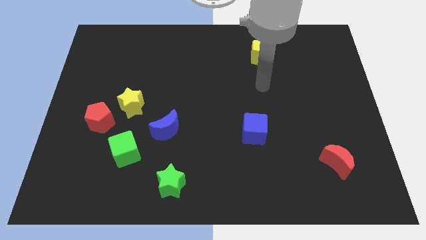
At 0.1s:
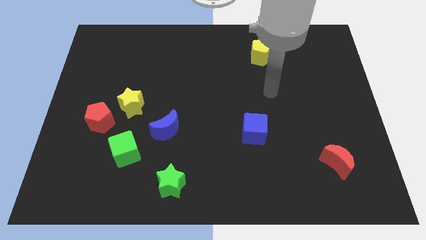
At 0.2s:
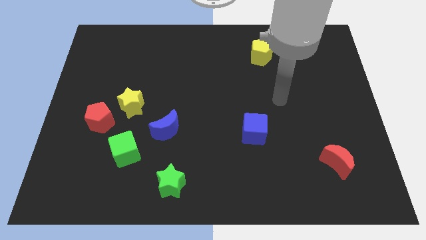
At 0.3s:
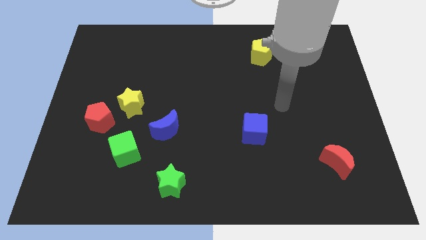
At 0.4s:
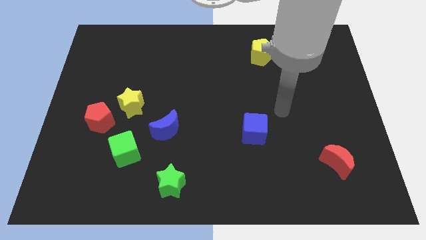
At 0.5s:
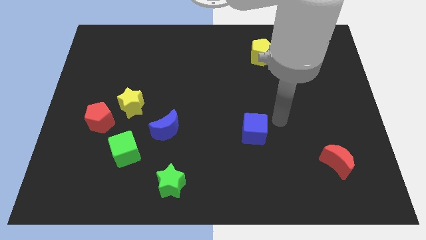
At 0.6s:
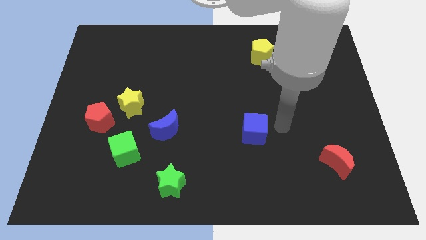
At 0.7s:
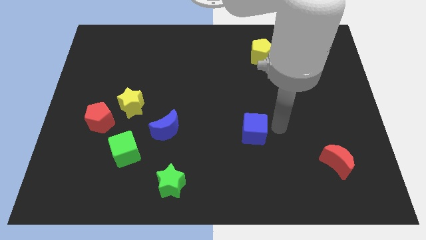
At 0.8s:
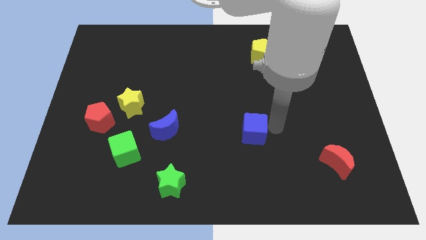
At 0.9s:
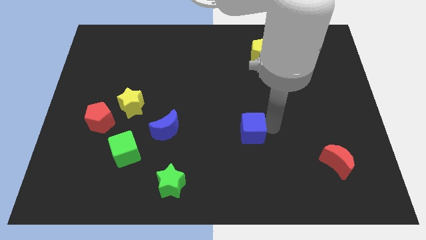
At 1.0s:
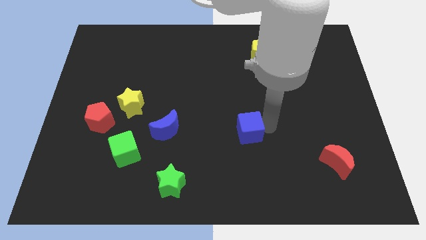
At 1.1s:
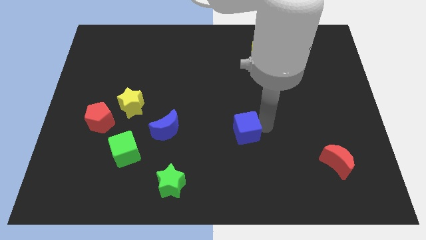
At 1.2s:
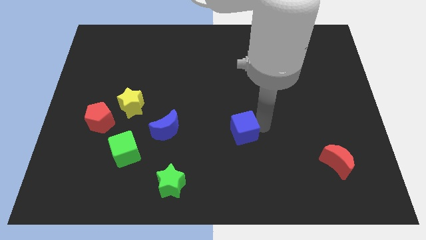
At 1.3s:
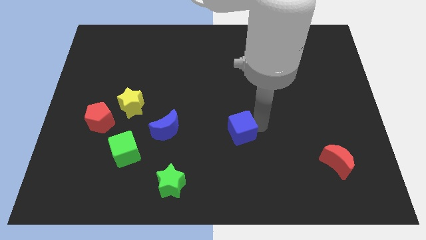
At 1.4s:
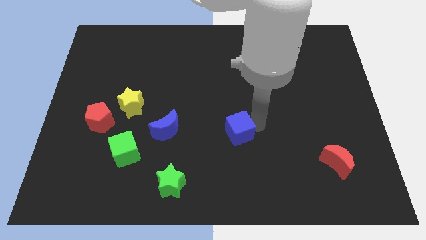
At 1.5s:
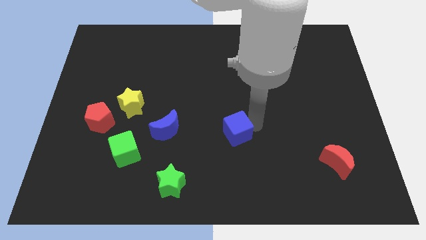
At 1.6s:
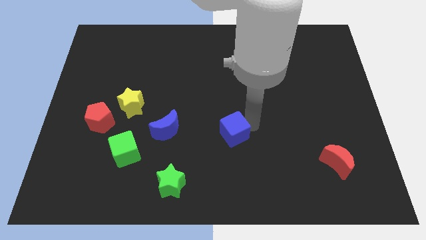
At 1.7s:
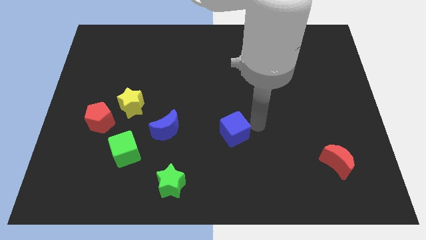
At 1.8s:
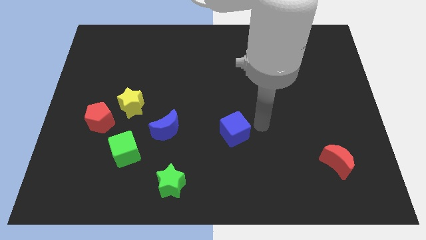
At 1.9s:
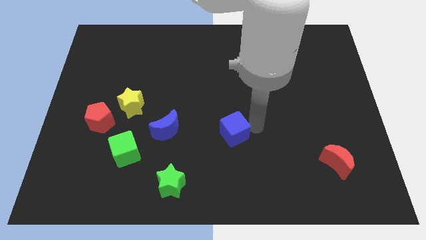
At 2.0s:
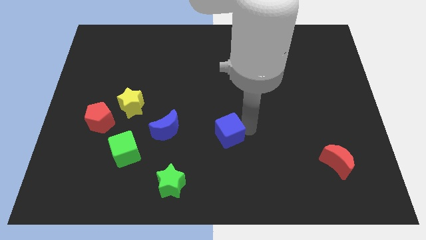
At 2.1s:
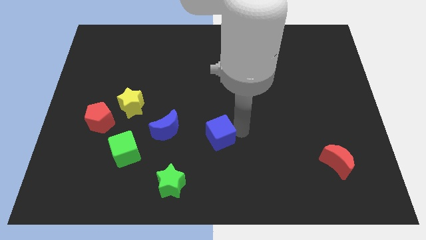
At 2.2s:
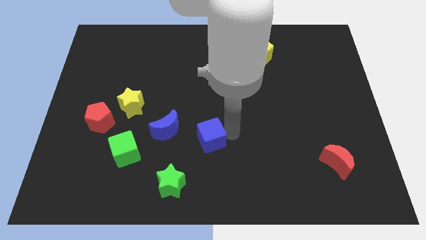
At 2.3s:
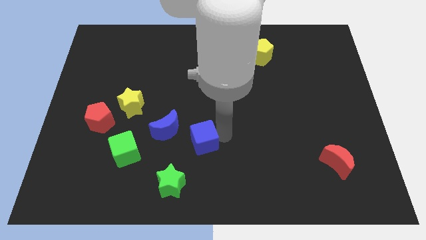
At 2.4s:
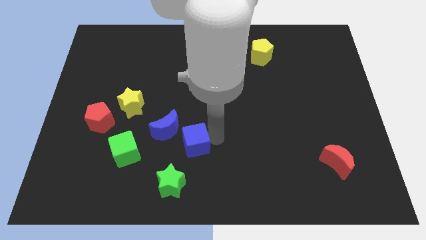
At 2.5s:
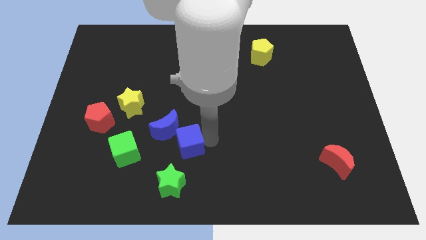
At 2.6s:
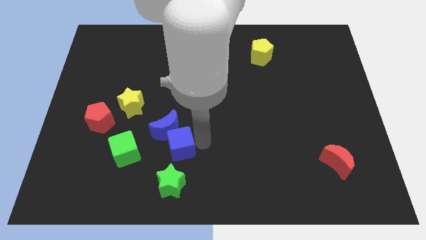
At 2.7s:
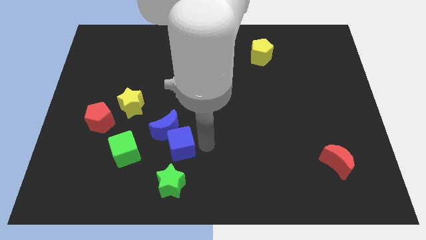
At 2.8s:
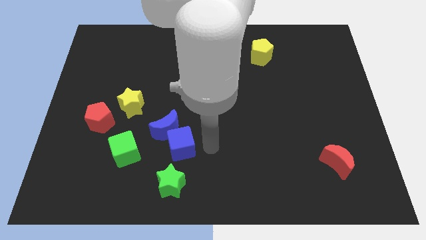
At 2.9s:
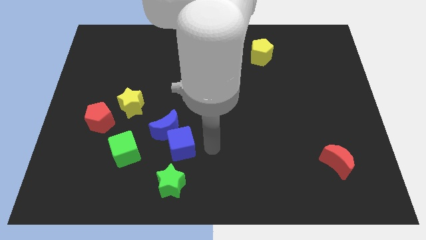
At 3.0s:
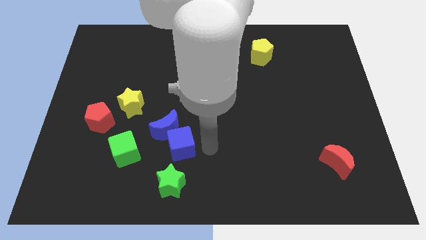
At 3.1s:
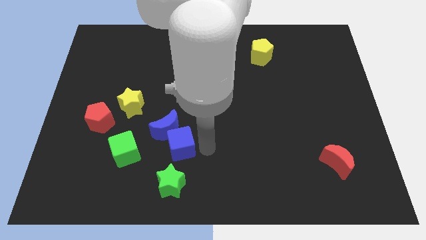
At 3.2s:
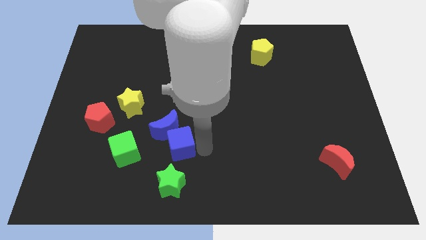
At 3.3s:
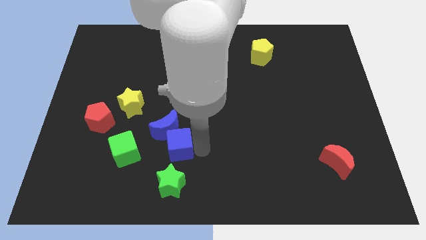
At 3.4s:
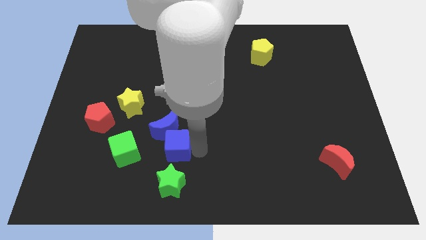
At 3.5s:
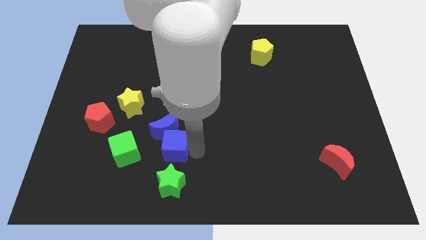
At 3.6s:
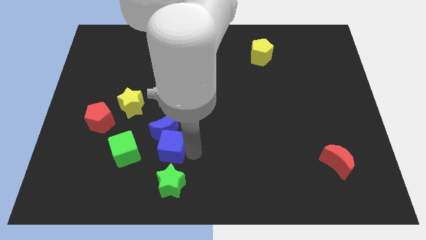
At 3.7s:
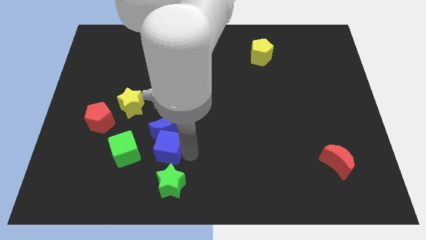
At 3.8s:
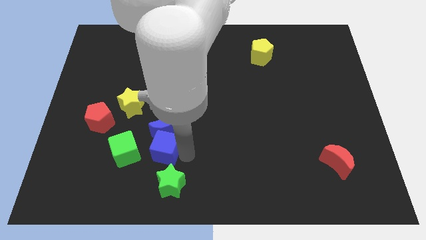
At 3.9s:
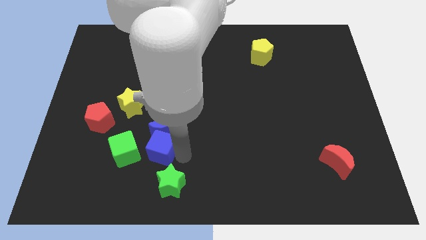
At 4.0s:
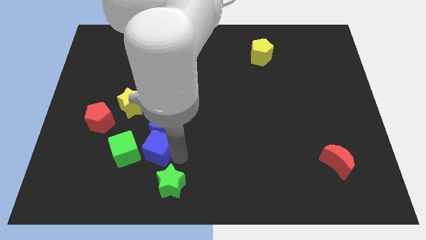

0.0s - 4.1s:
move the blue cube to the left

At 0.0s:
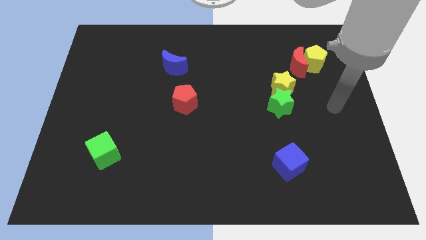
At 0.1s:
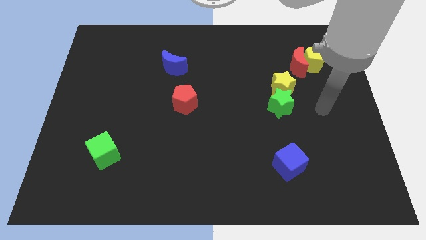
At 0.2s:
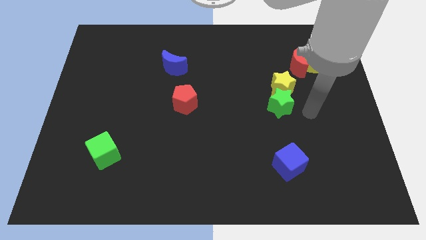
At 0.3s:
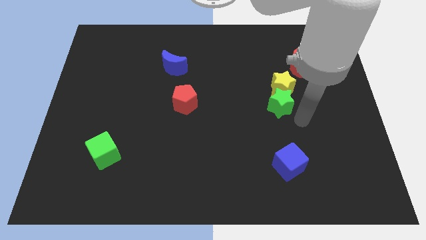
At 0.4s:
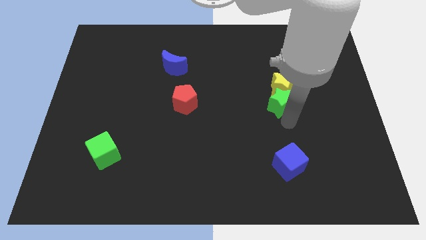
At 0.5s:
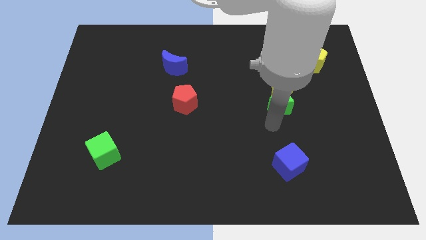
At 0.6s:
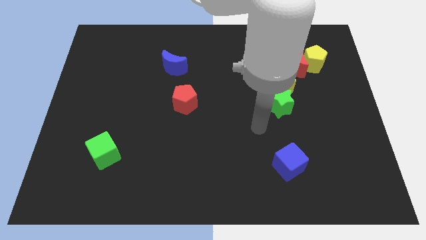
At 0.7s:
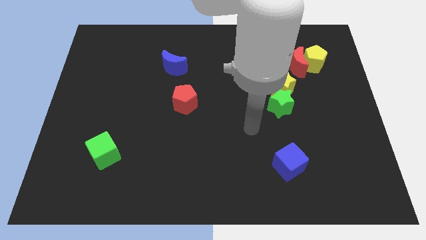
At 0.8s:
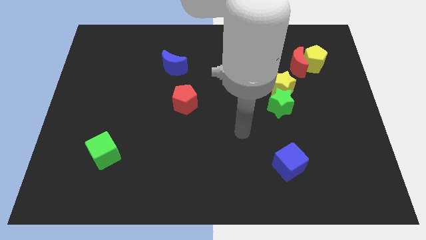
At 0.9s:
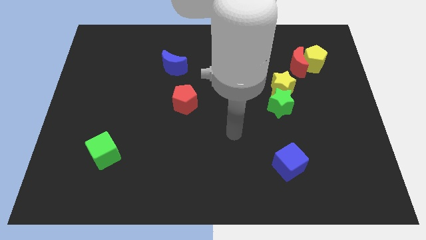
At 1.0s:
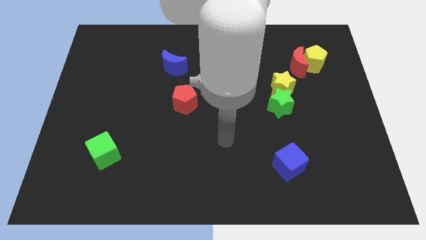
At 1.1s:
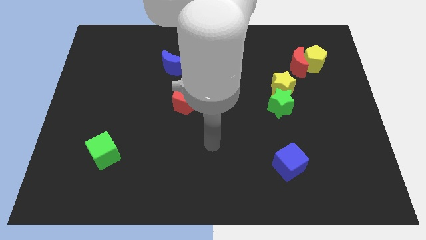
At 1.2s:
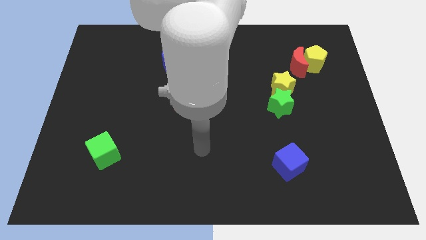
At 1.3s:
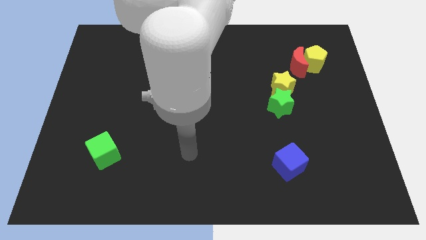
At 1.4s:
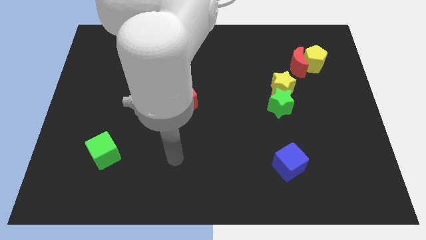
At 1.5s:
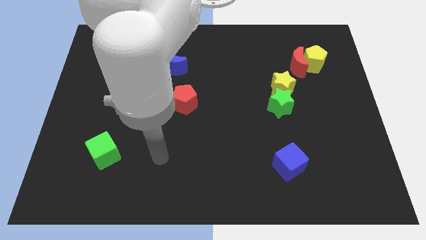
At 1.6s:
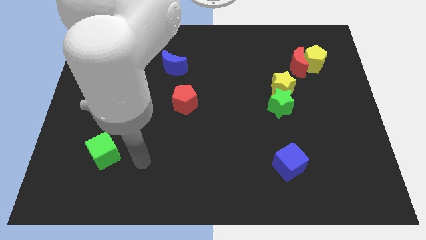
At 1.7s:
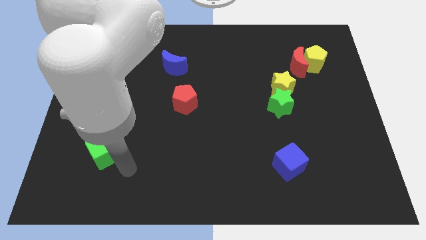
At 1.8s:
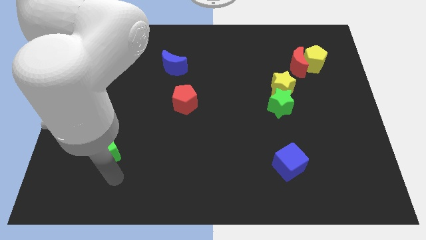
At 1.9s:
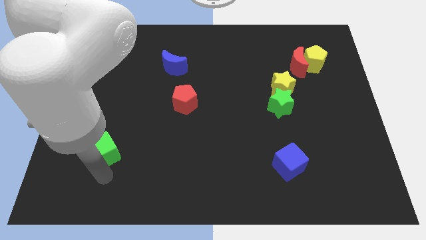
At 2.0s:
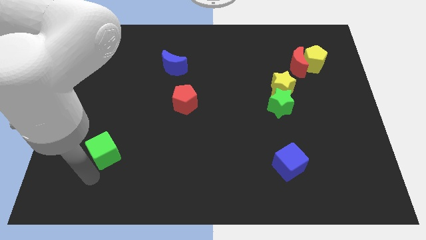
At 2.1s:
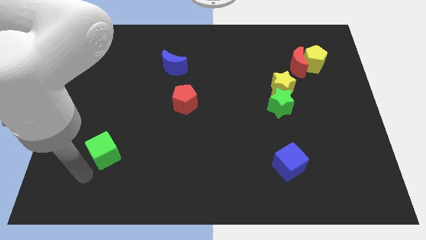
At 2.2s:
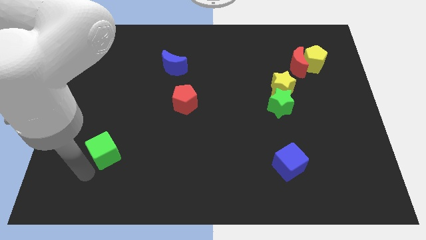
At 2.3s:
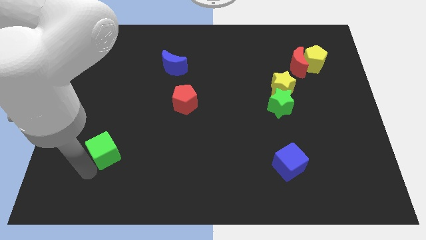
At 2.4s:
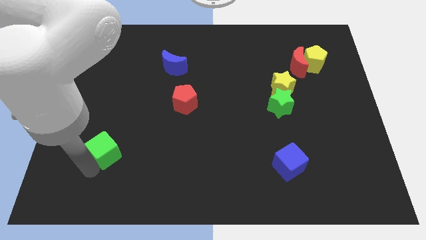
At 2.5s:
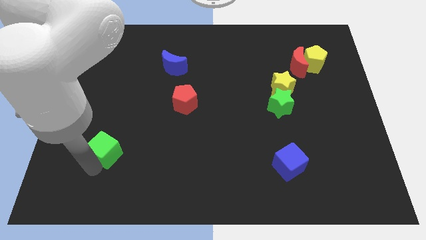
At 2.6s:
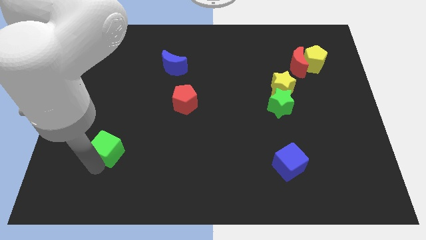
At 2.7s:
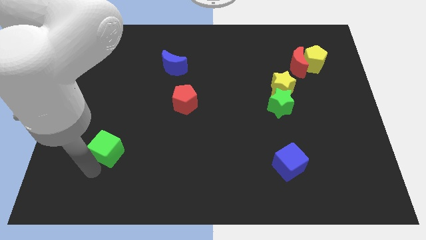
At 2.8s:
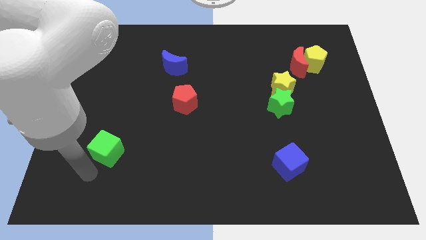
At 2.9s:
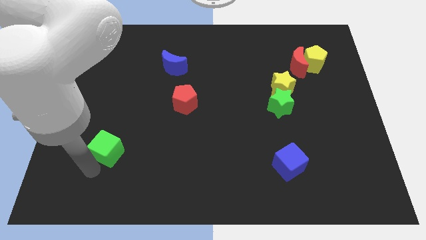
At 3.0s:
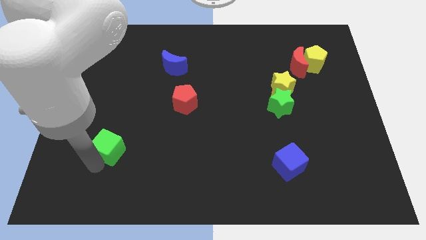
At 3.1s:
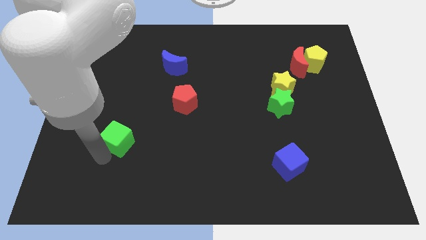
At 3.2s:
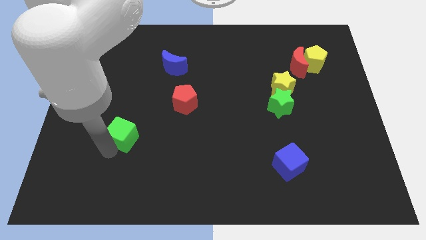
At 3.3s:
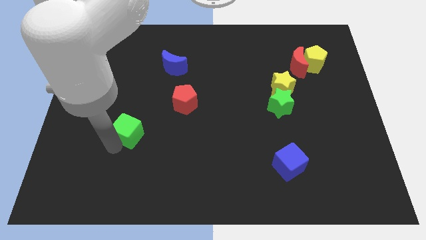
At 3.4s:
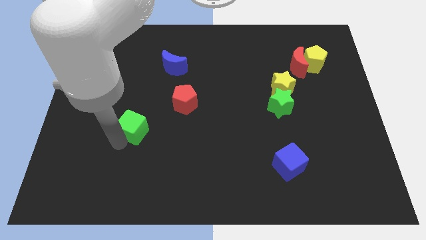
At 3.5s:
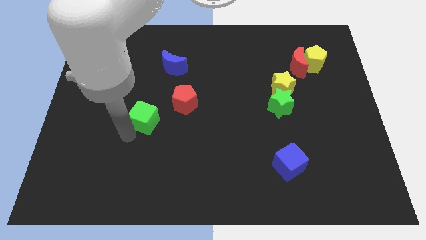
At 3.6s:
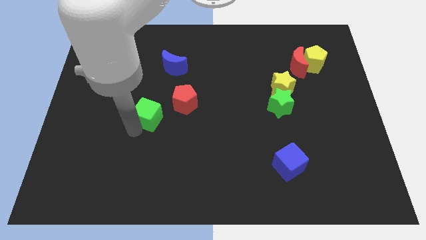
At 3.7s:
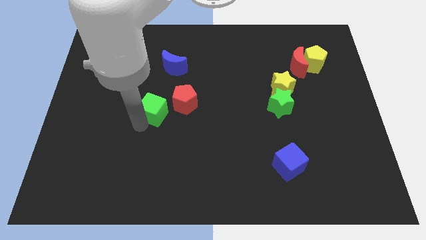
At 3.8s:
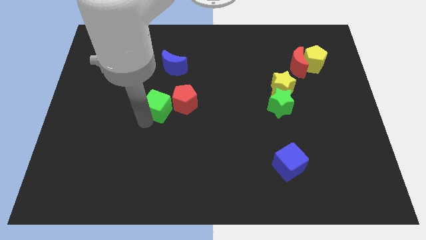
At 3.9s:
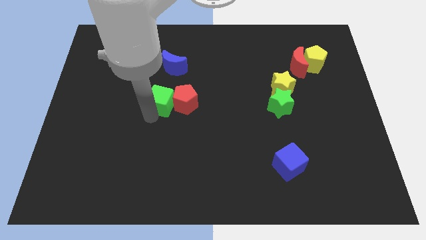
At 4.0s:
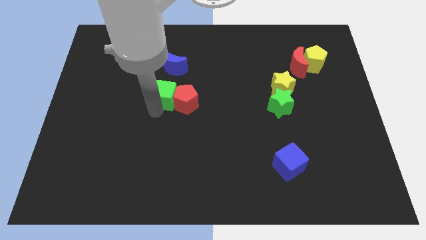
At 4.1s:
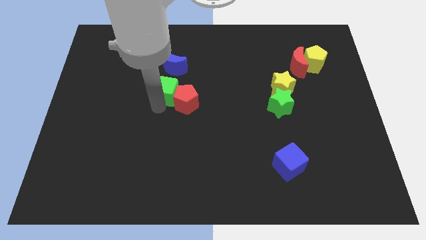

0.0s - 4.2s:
push the green cube up and right

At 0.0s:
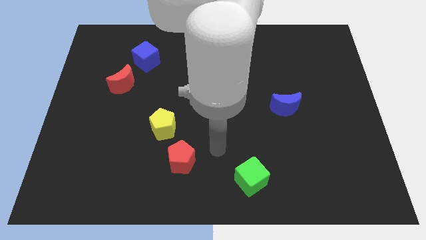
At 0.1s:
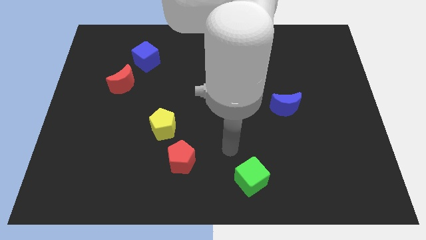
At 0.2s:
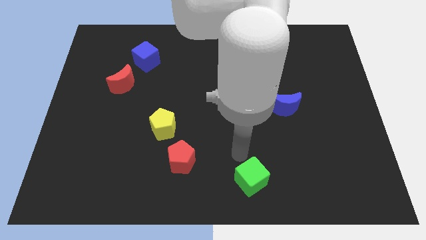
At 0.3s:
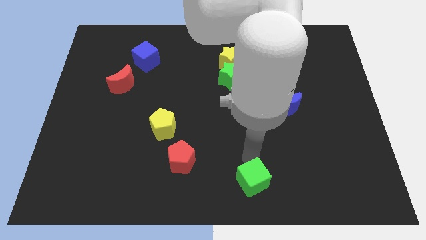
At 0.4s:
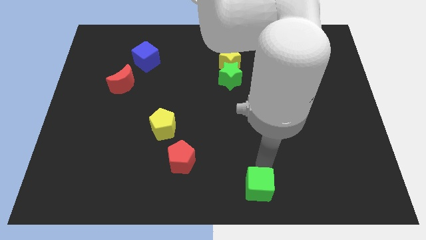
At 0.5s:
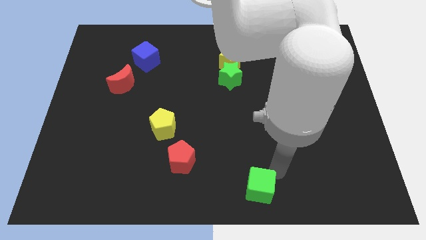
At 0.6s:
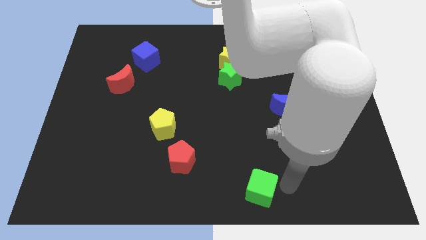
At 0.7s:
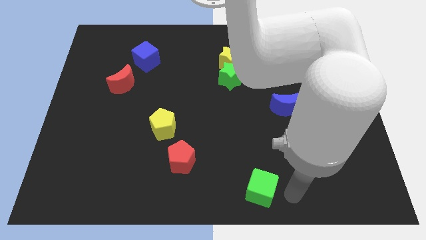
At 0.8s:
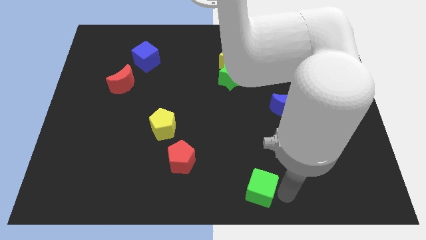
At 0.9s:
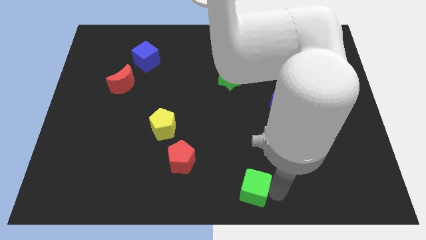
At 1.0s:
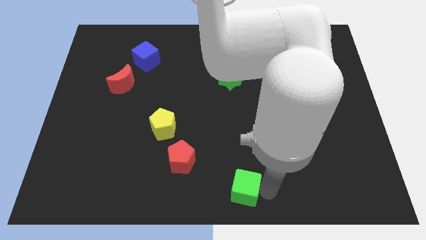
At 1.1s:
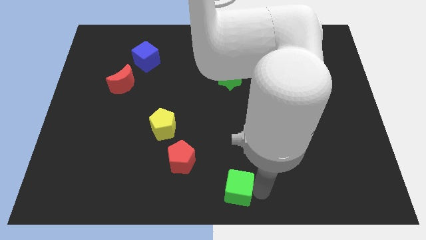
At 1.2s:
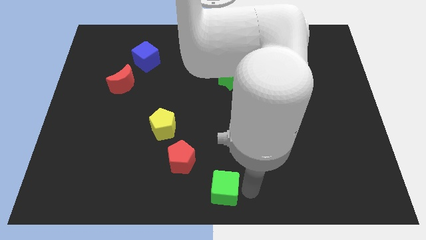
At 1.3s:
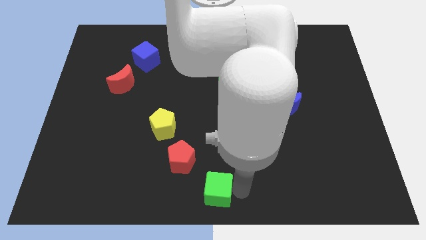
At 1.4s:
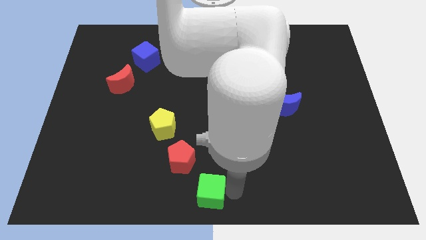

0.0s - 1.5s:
slide the green cube to the left a little
